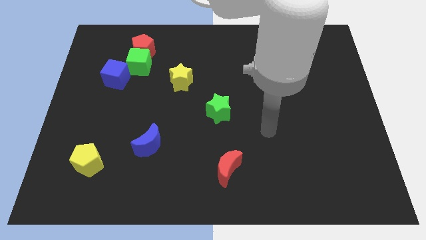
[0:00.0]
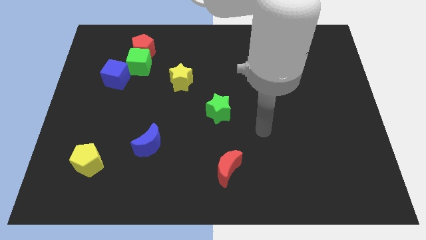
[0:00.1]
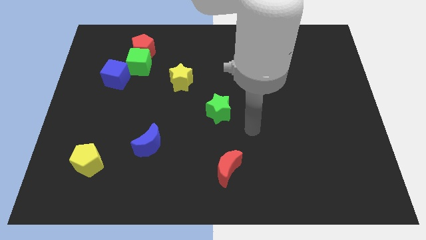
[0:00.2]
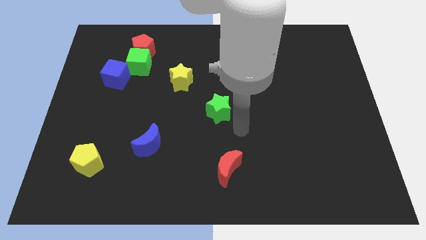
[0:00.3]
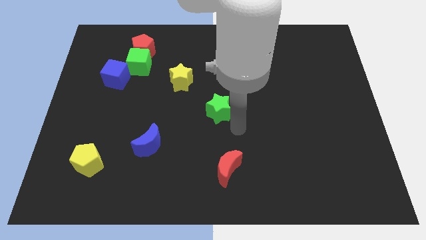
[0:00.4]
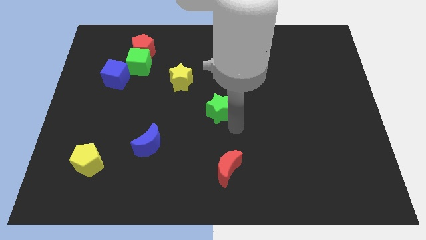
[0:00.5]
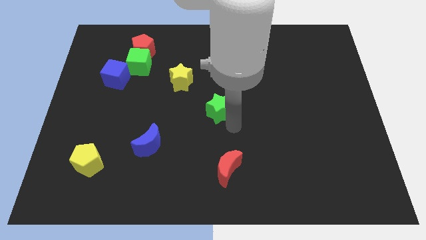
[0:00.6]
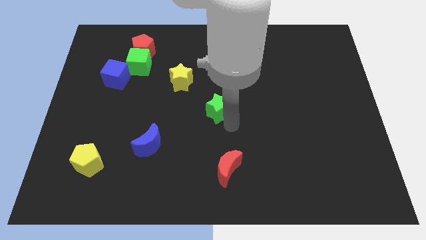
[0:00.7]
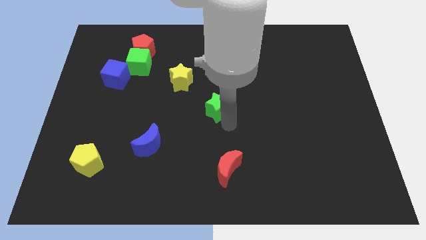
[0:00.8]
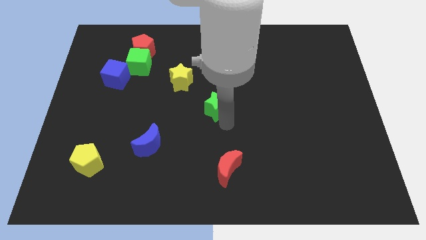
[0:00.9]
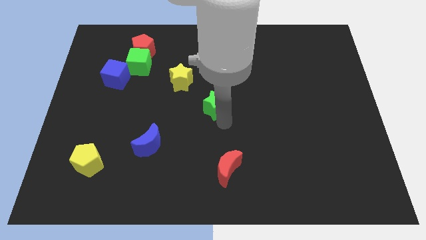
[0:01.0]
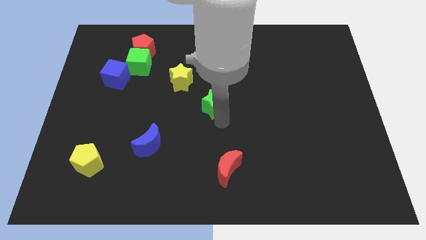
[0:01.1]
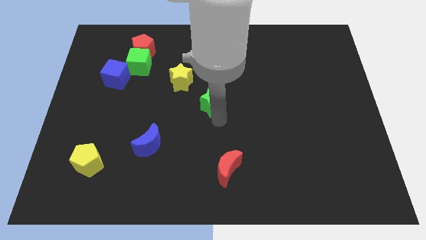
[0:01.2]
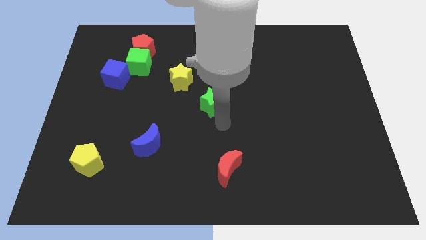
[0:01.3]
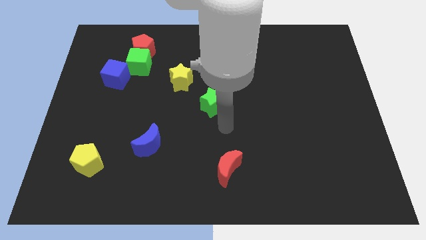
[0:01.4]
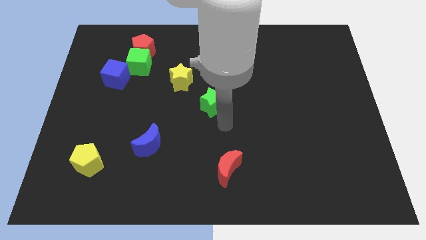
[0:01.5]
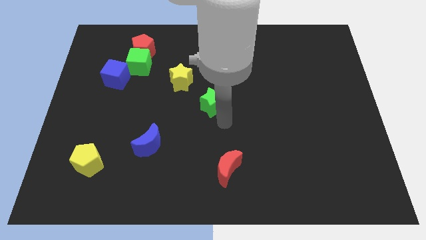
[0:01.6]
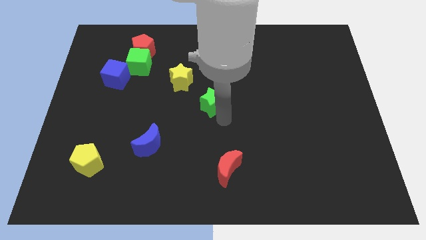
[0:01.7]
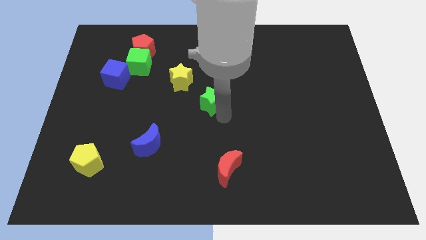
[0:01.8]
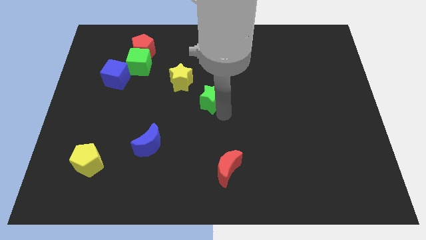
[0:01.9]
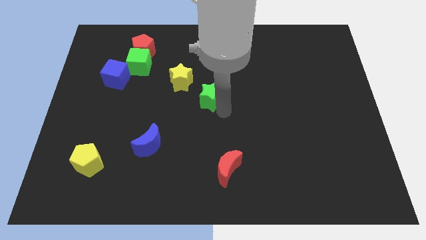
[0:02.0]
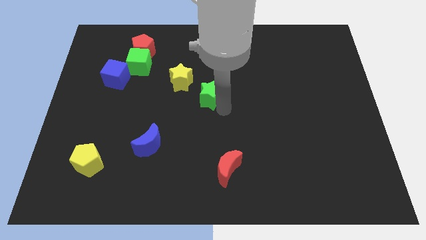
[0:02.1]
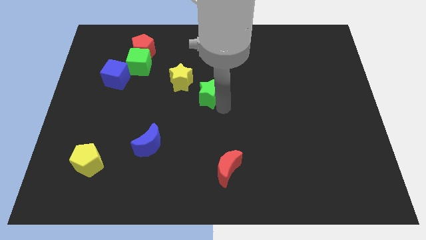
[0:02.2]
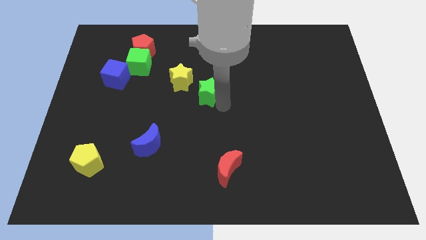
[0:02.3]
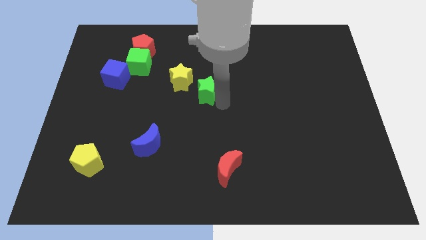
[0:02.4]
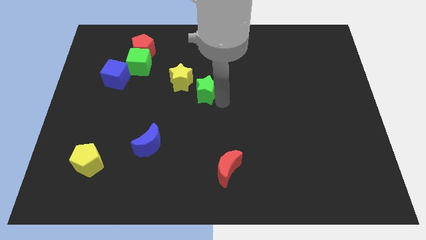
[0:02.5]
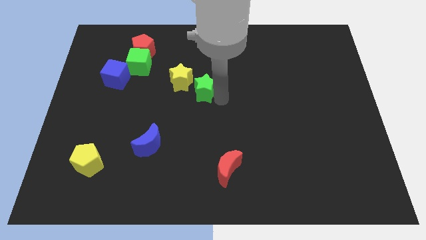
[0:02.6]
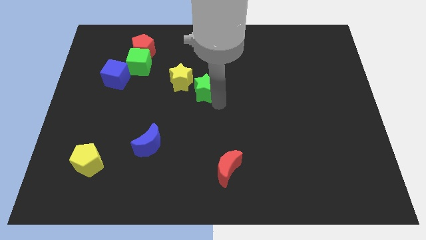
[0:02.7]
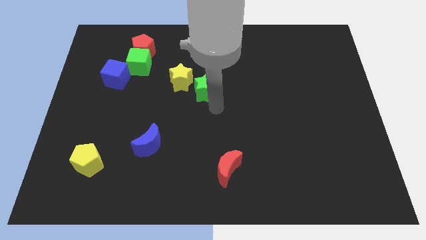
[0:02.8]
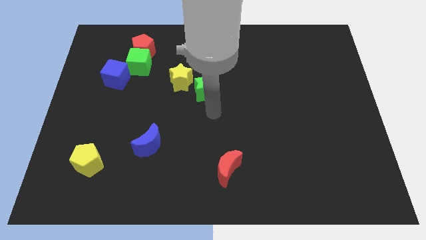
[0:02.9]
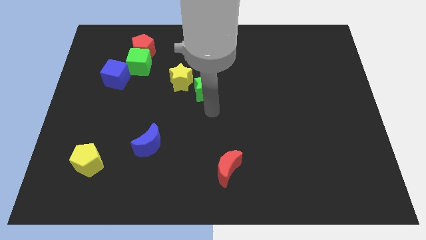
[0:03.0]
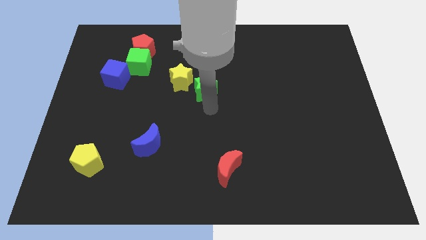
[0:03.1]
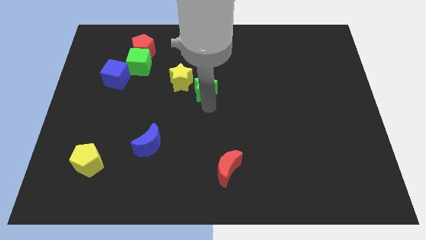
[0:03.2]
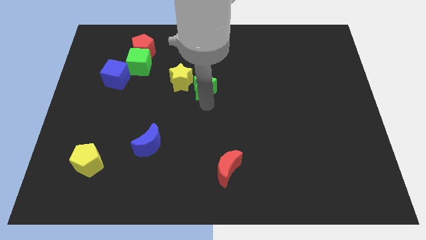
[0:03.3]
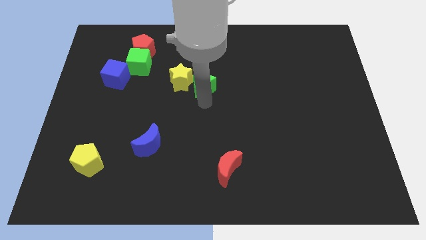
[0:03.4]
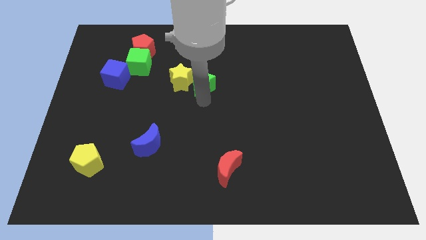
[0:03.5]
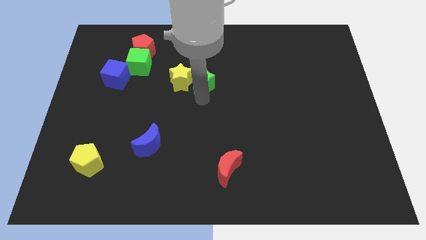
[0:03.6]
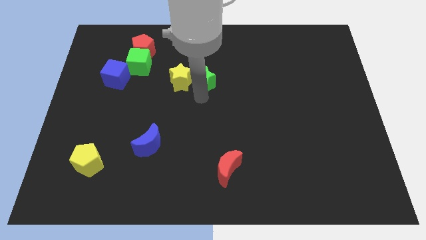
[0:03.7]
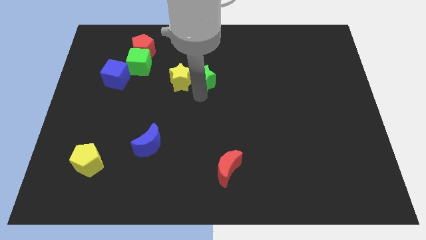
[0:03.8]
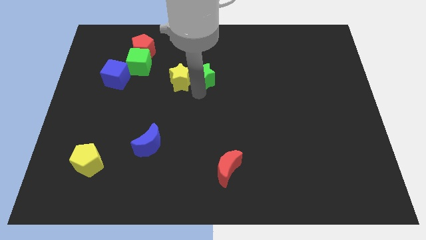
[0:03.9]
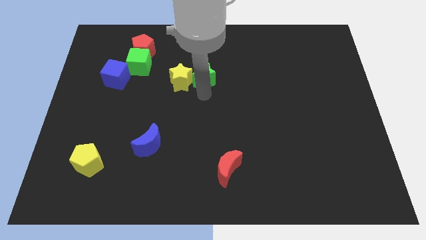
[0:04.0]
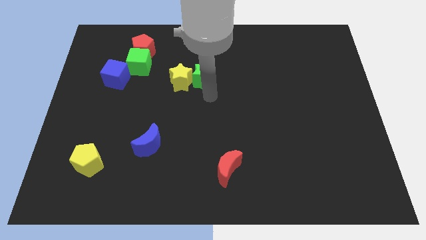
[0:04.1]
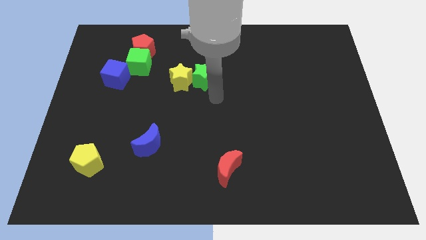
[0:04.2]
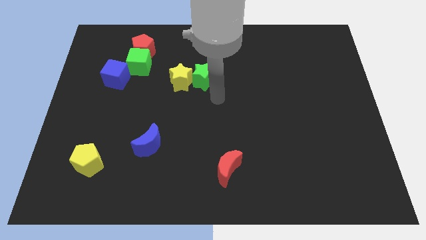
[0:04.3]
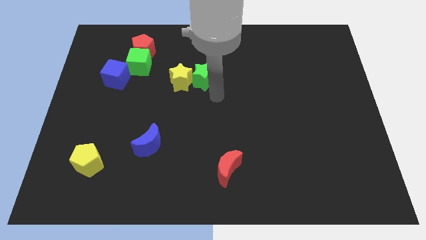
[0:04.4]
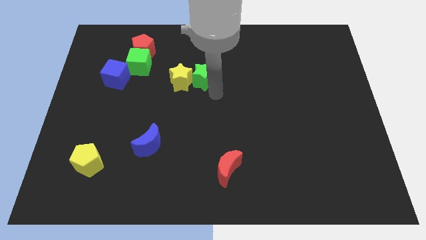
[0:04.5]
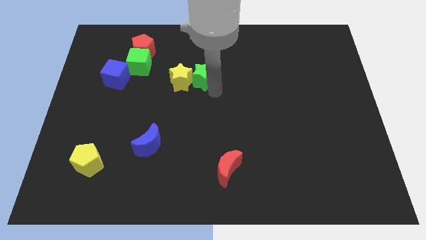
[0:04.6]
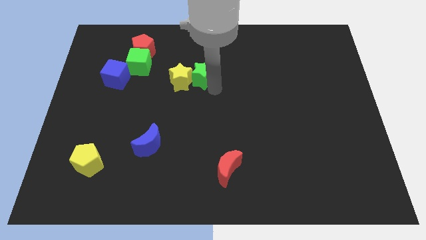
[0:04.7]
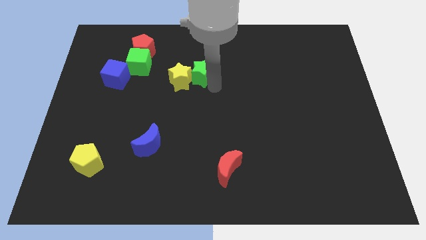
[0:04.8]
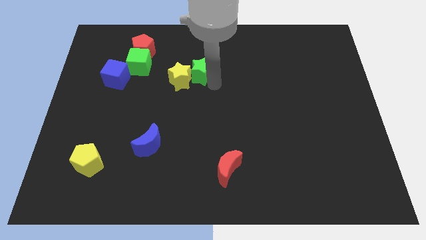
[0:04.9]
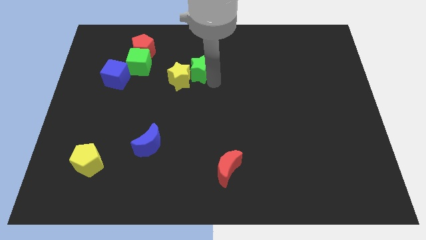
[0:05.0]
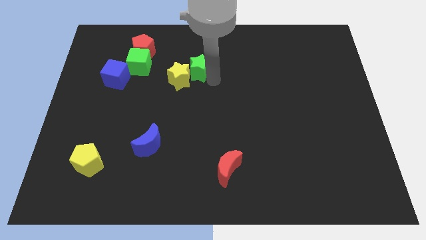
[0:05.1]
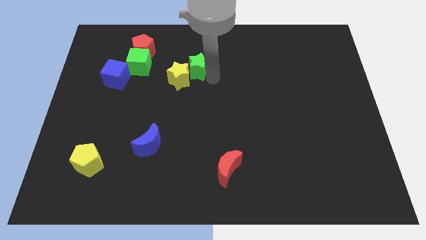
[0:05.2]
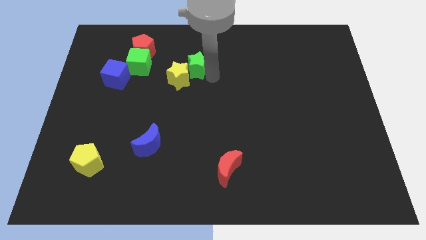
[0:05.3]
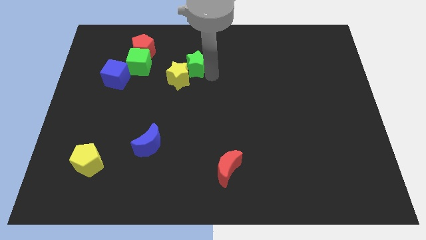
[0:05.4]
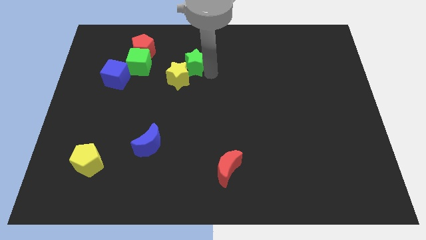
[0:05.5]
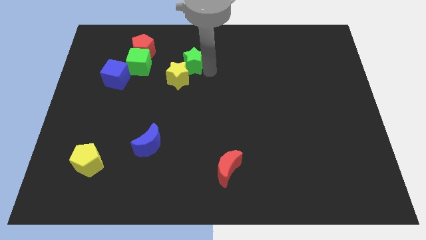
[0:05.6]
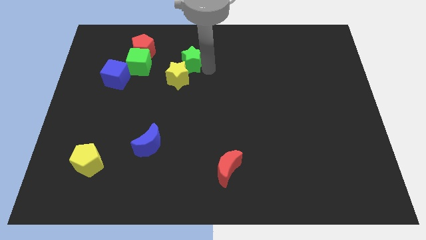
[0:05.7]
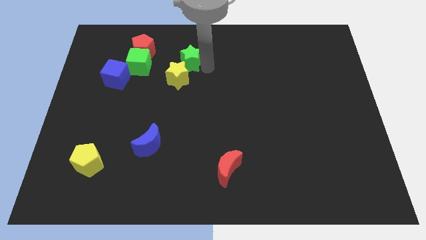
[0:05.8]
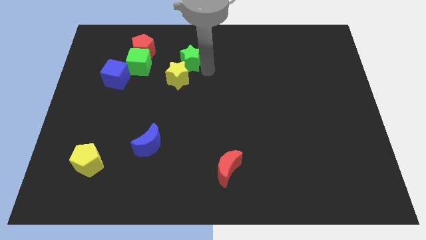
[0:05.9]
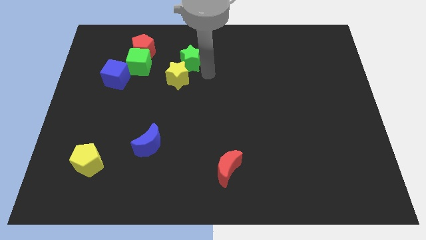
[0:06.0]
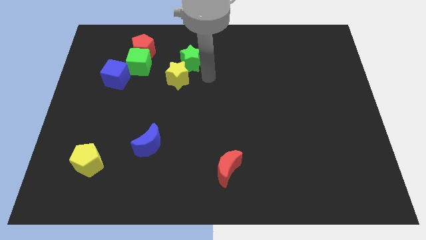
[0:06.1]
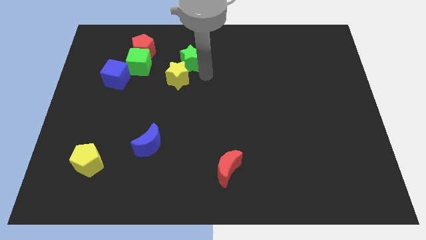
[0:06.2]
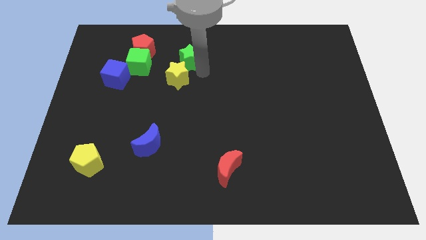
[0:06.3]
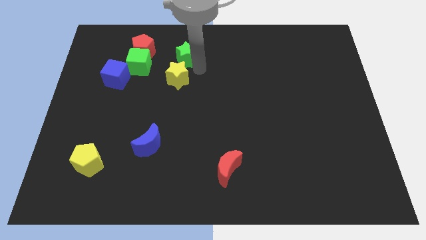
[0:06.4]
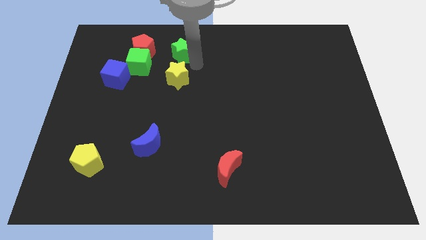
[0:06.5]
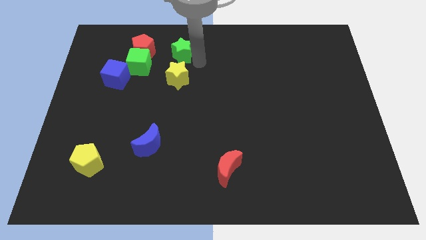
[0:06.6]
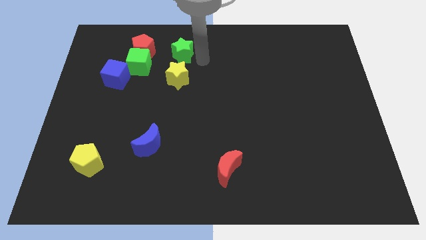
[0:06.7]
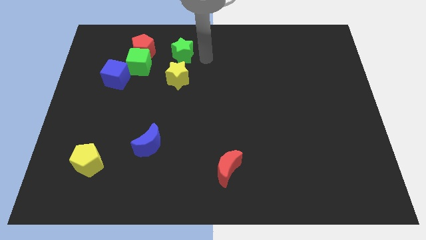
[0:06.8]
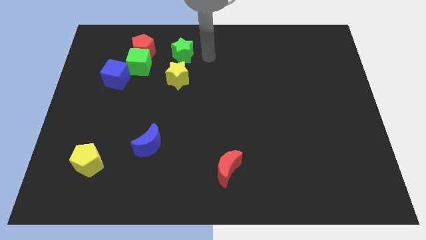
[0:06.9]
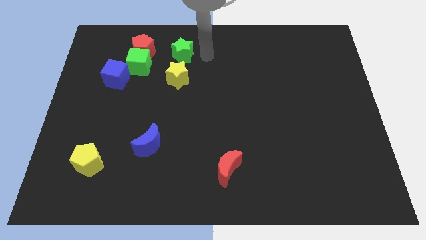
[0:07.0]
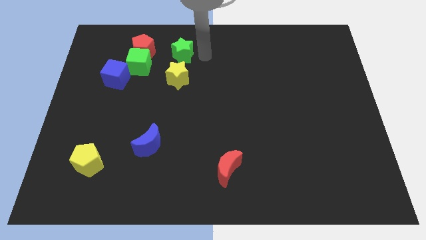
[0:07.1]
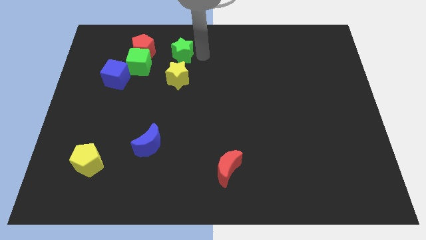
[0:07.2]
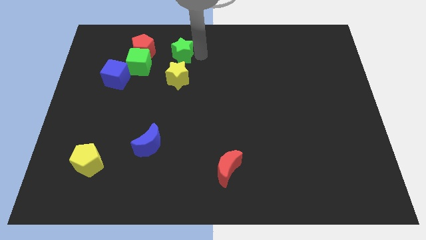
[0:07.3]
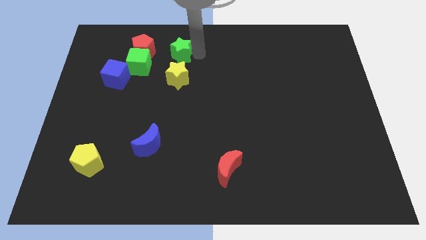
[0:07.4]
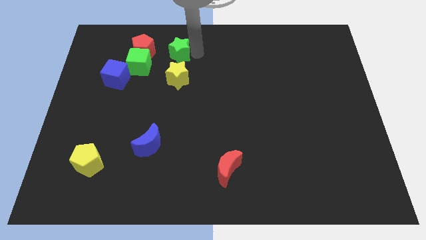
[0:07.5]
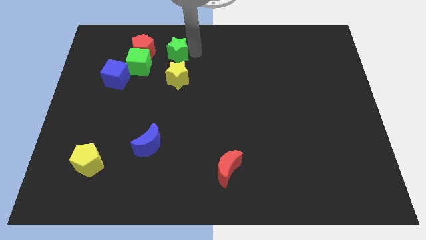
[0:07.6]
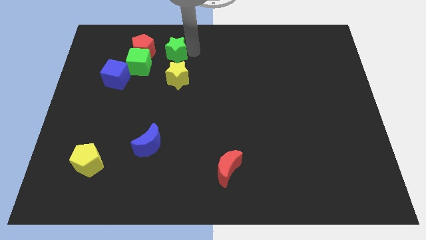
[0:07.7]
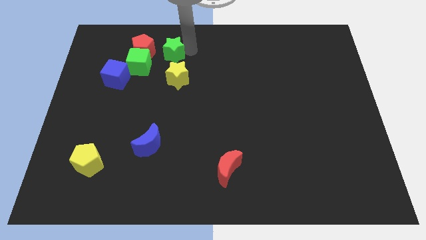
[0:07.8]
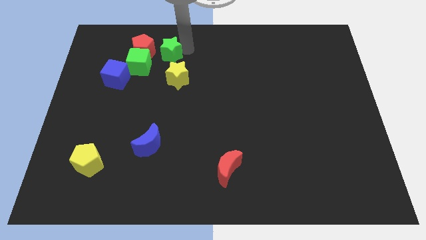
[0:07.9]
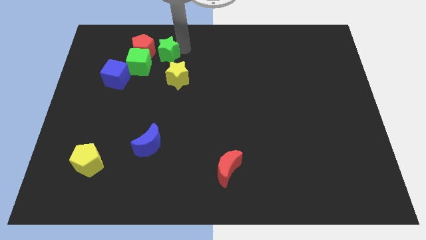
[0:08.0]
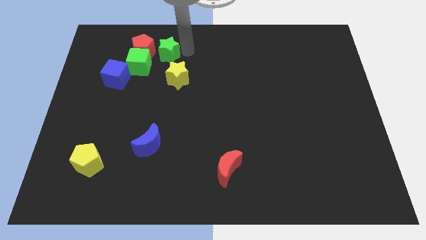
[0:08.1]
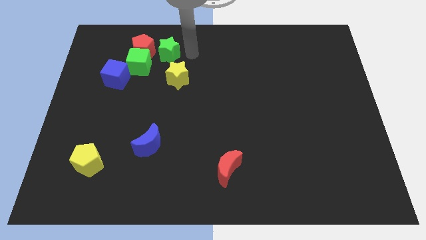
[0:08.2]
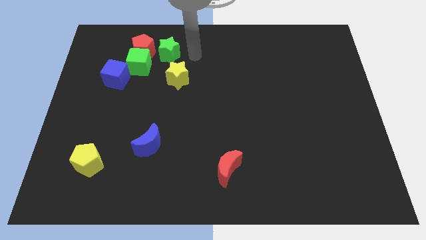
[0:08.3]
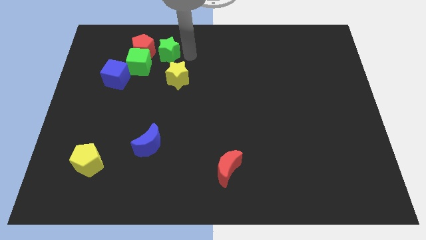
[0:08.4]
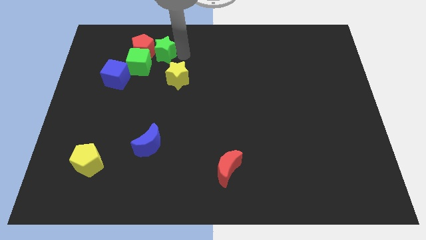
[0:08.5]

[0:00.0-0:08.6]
move the green star next to the red pentagon
